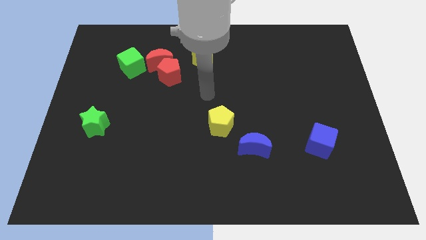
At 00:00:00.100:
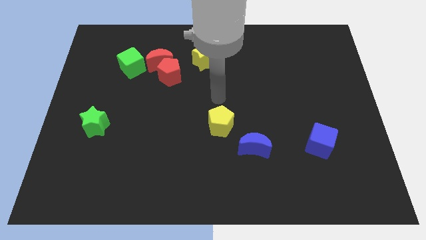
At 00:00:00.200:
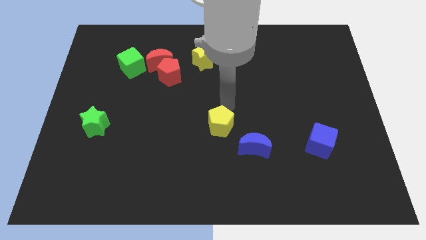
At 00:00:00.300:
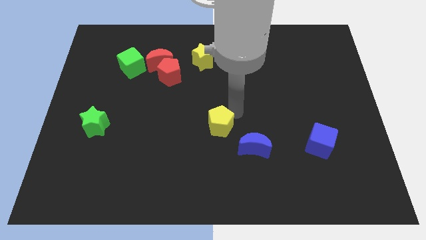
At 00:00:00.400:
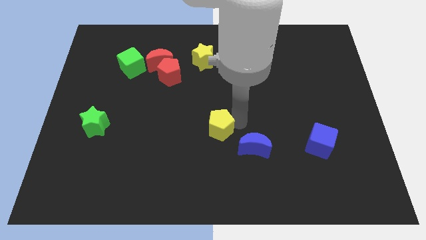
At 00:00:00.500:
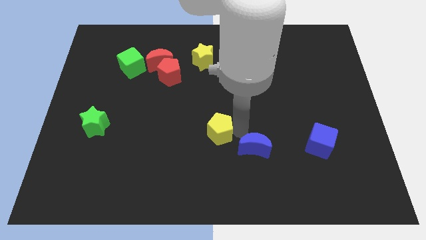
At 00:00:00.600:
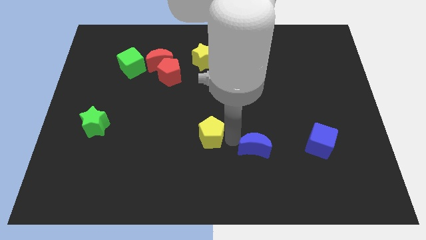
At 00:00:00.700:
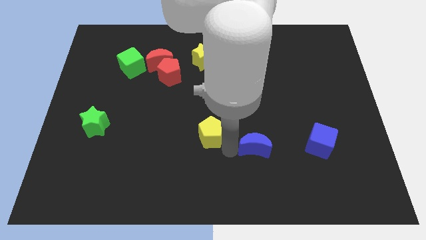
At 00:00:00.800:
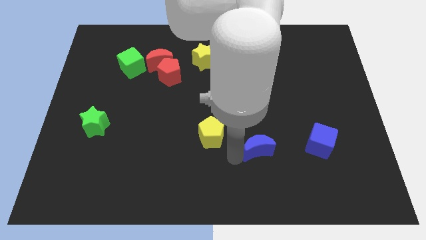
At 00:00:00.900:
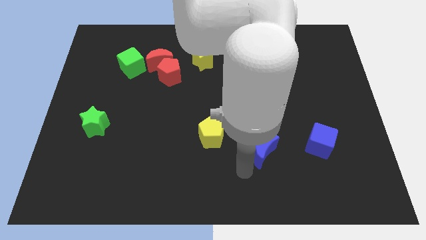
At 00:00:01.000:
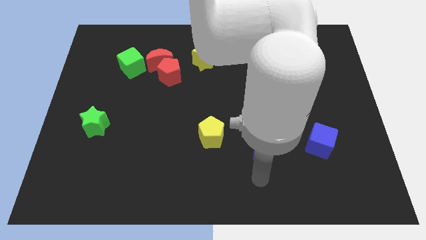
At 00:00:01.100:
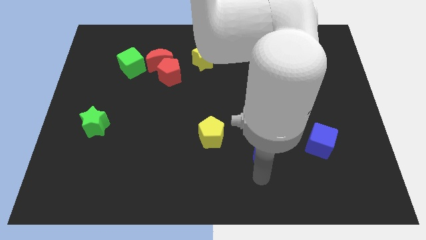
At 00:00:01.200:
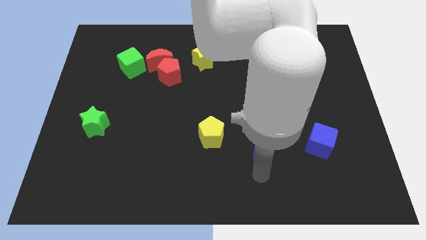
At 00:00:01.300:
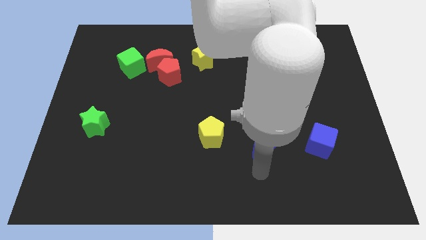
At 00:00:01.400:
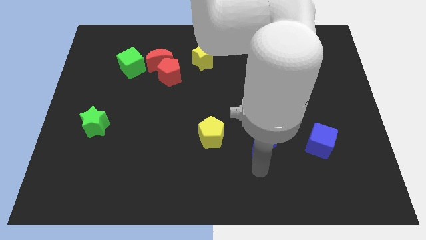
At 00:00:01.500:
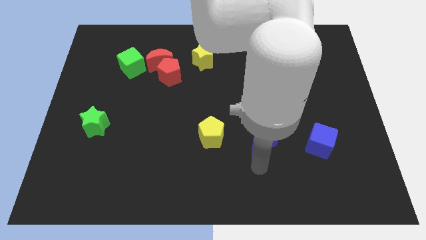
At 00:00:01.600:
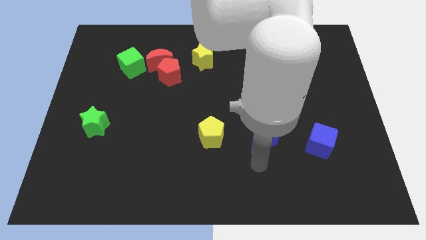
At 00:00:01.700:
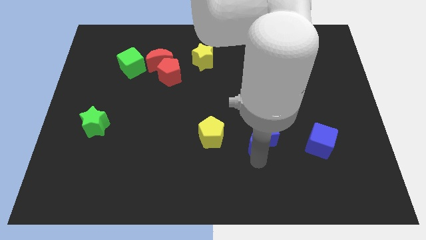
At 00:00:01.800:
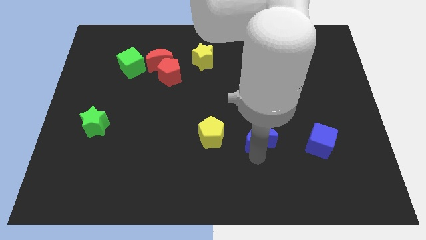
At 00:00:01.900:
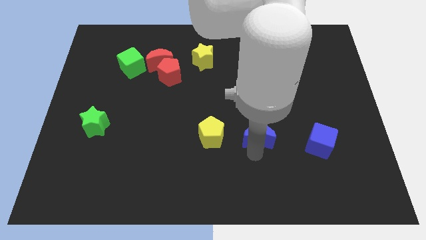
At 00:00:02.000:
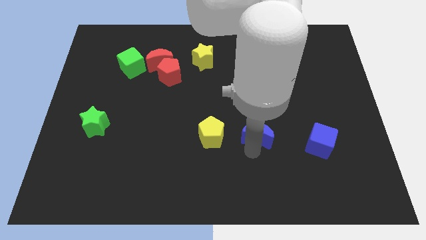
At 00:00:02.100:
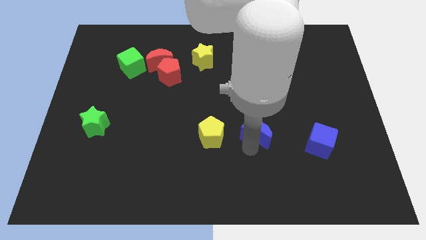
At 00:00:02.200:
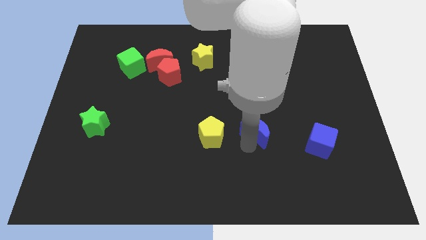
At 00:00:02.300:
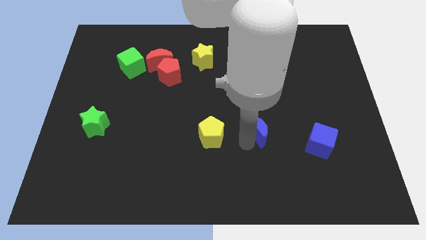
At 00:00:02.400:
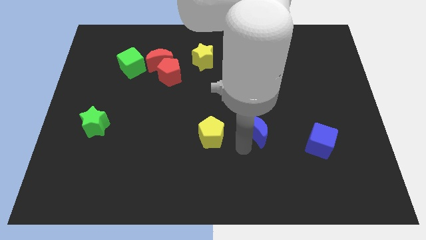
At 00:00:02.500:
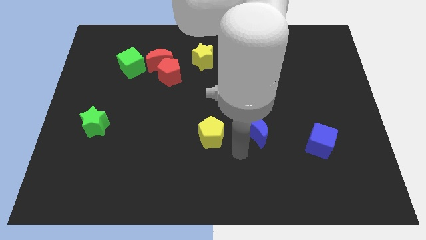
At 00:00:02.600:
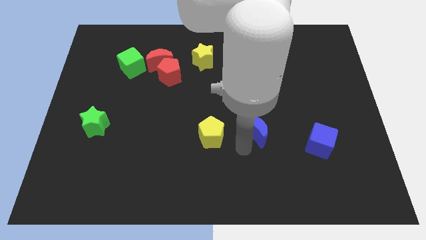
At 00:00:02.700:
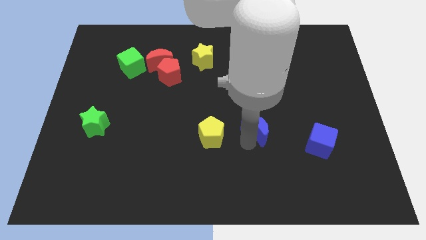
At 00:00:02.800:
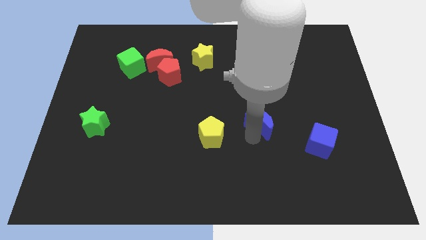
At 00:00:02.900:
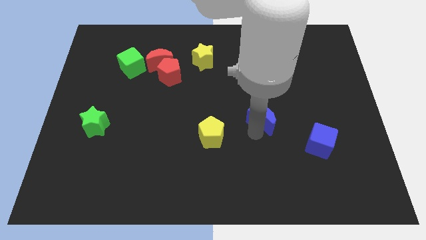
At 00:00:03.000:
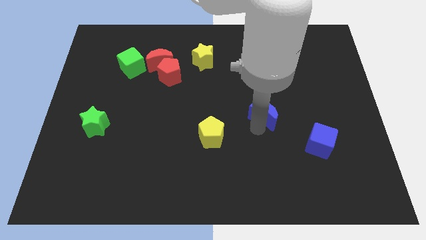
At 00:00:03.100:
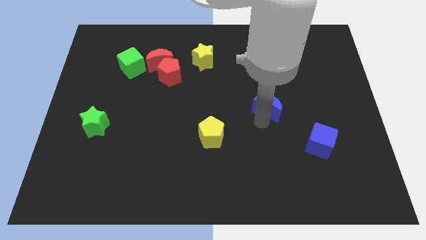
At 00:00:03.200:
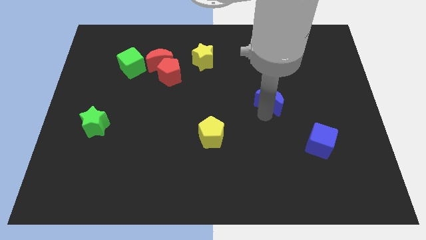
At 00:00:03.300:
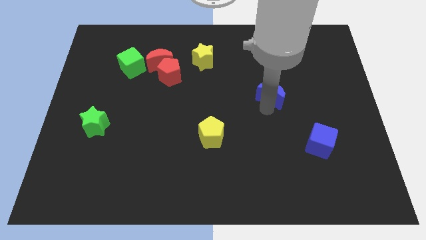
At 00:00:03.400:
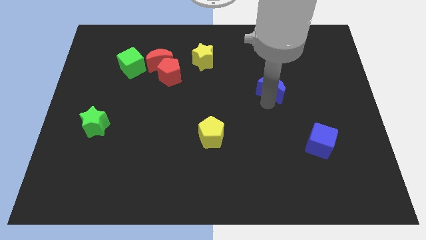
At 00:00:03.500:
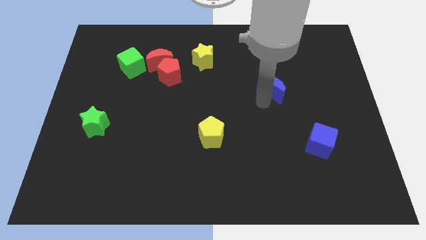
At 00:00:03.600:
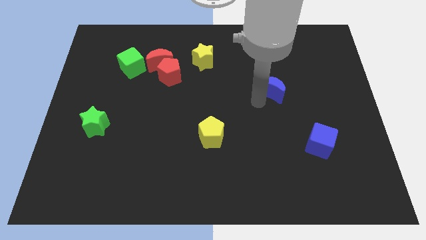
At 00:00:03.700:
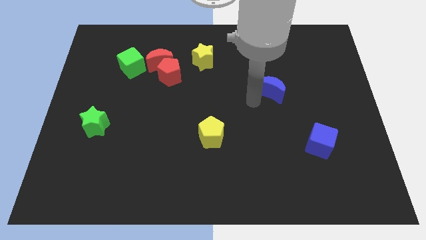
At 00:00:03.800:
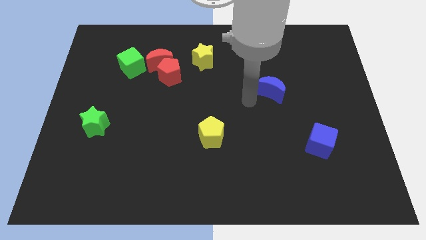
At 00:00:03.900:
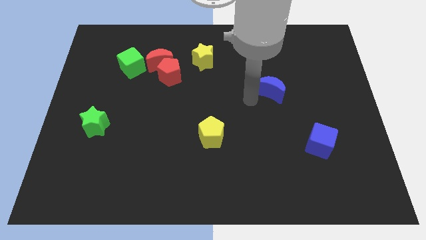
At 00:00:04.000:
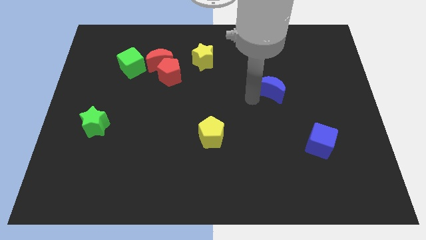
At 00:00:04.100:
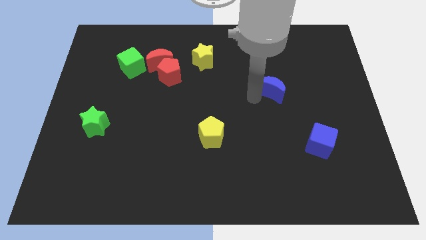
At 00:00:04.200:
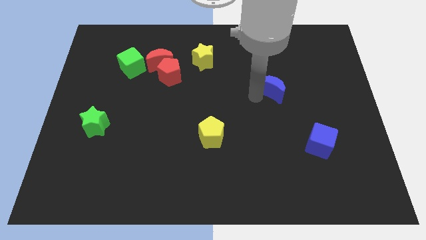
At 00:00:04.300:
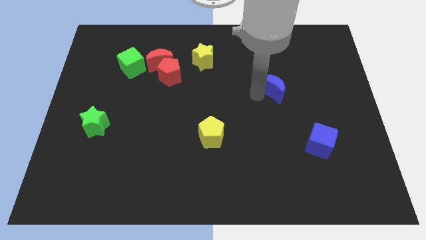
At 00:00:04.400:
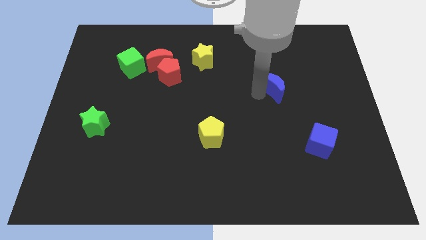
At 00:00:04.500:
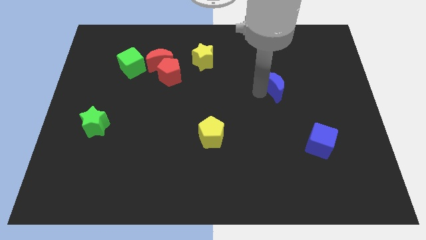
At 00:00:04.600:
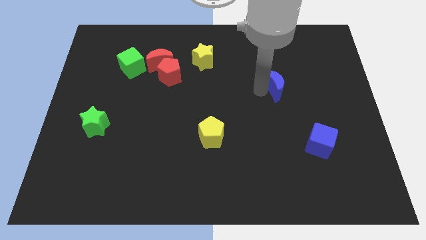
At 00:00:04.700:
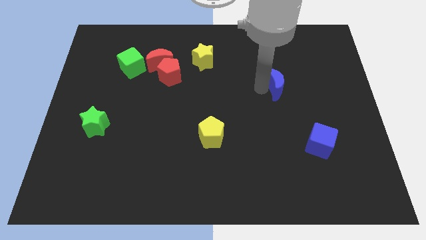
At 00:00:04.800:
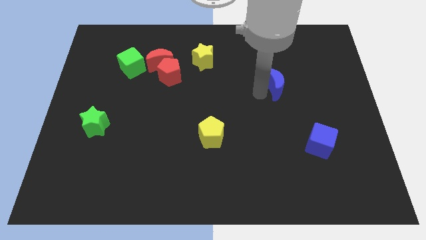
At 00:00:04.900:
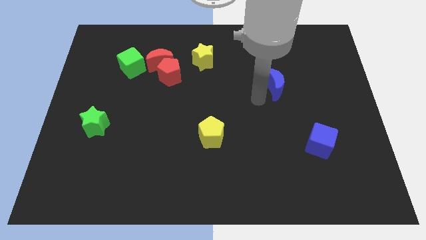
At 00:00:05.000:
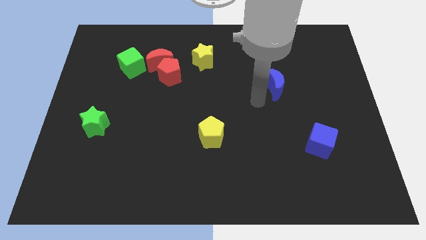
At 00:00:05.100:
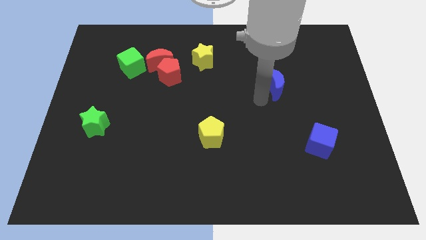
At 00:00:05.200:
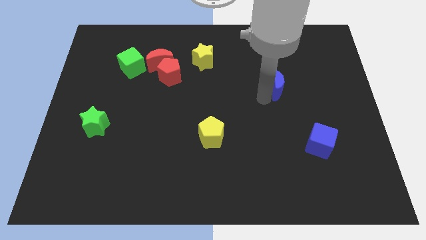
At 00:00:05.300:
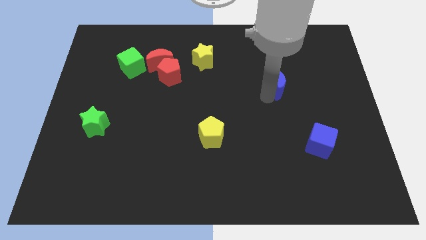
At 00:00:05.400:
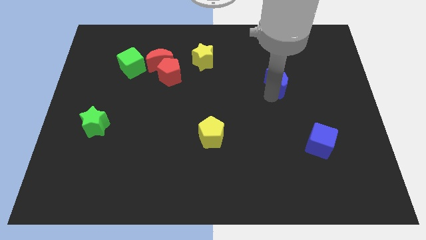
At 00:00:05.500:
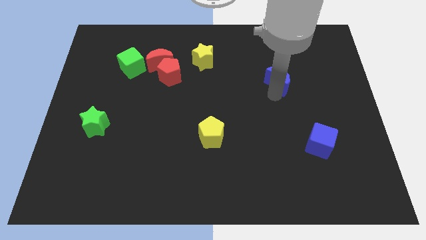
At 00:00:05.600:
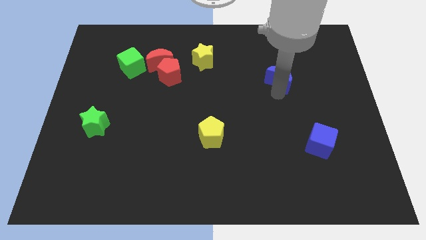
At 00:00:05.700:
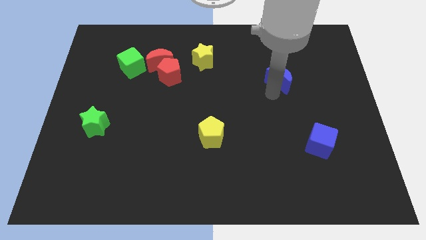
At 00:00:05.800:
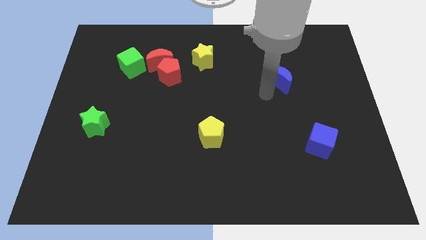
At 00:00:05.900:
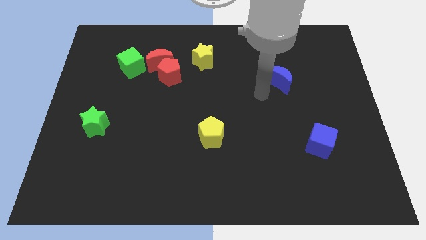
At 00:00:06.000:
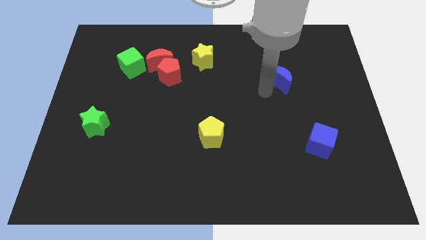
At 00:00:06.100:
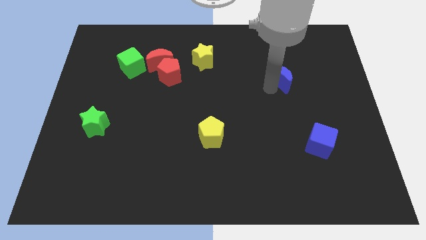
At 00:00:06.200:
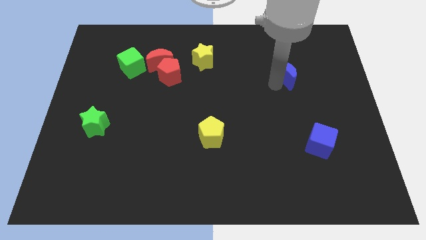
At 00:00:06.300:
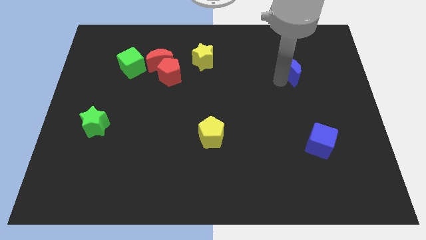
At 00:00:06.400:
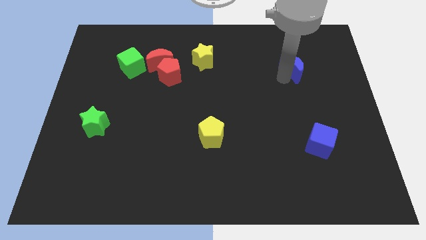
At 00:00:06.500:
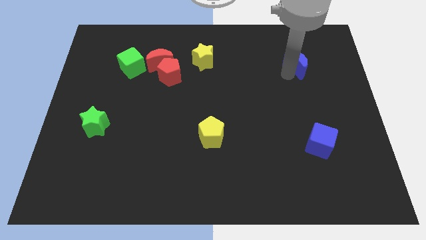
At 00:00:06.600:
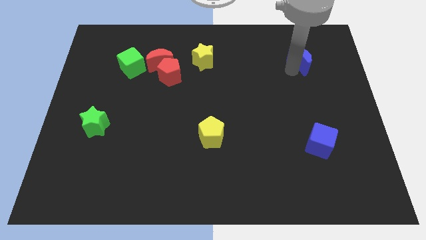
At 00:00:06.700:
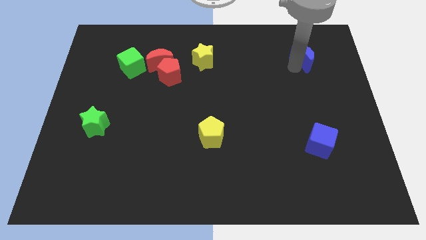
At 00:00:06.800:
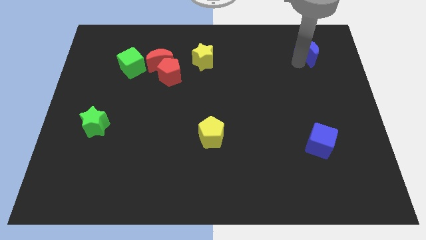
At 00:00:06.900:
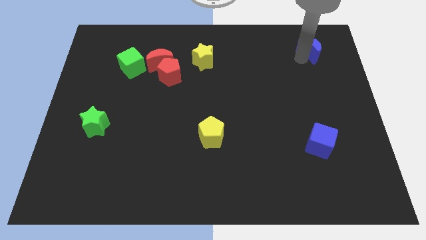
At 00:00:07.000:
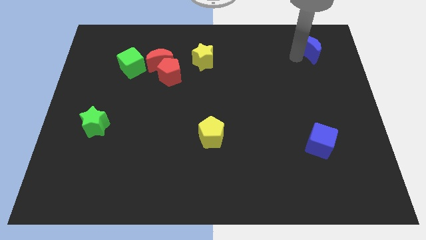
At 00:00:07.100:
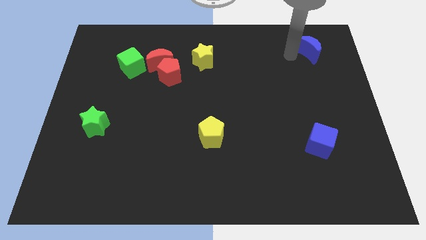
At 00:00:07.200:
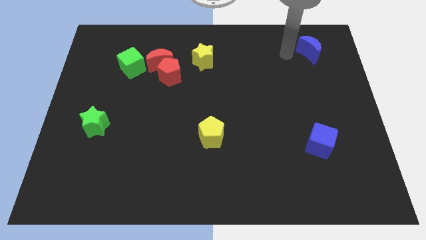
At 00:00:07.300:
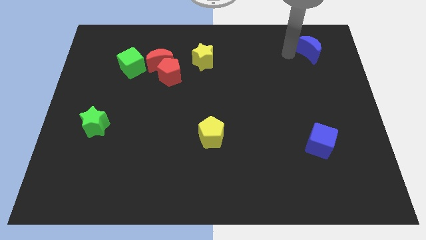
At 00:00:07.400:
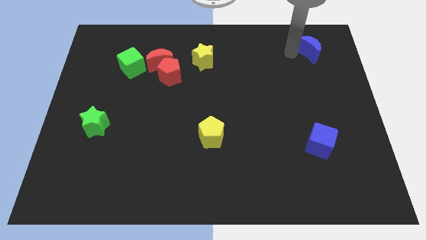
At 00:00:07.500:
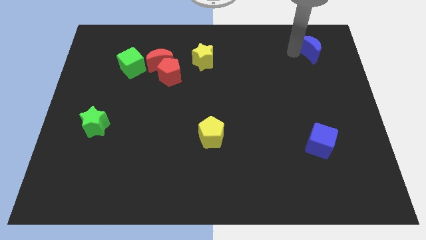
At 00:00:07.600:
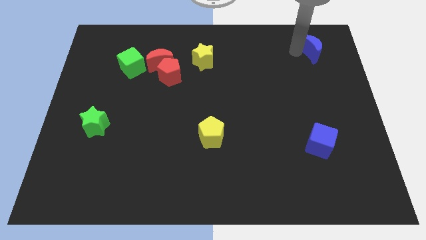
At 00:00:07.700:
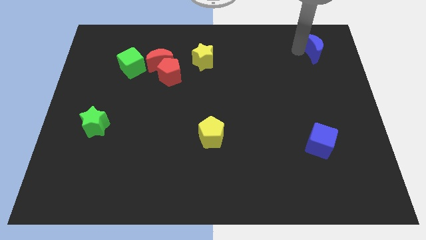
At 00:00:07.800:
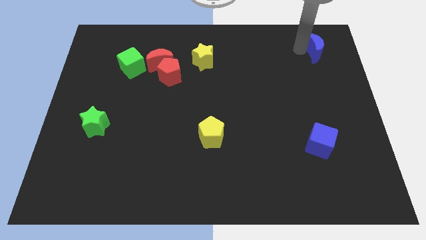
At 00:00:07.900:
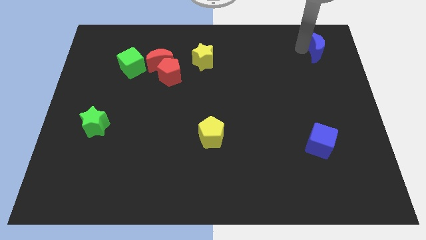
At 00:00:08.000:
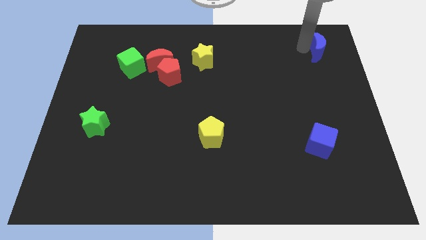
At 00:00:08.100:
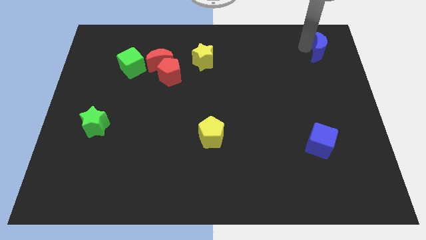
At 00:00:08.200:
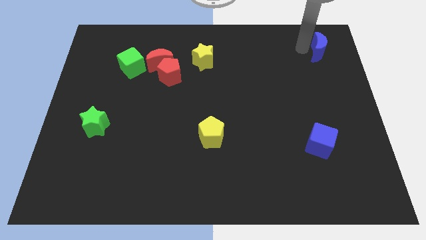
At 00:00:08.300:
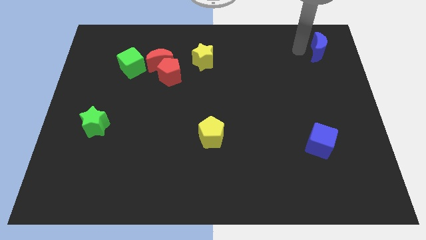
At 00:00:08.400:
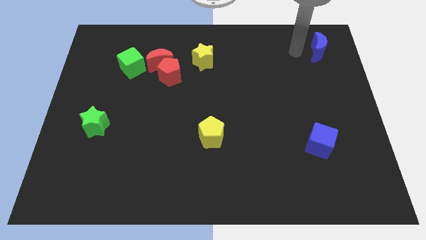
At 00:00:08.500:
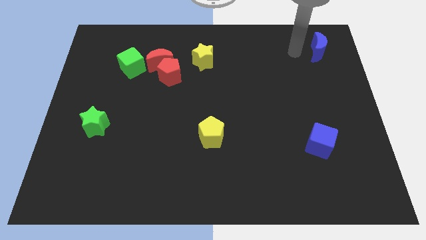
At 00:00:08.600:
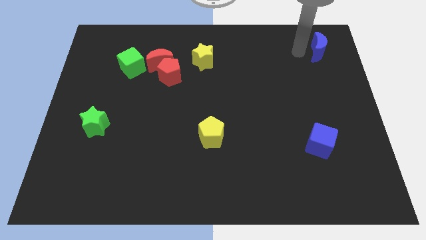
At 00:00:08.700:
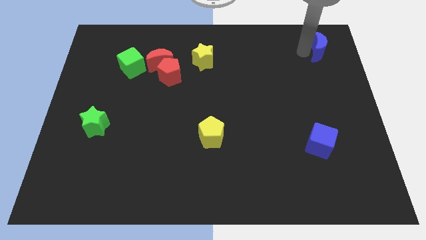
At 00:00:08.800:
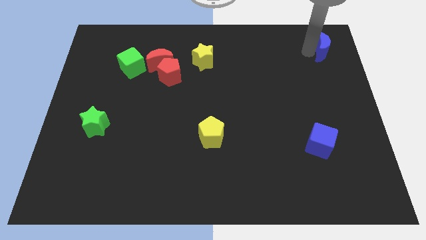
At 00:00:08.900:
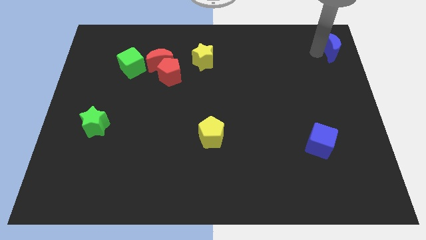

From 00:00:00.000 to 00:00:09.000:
slide the blue moon to the upper right corner
